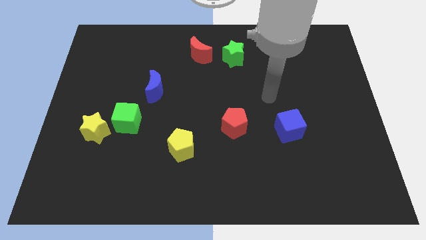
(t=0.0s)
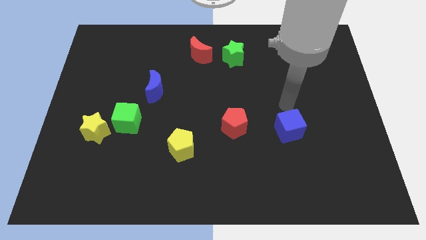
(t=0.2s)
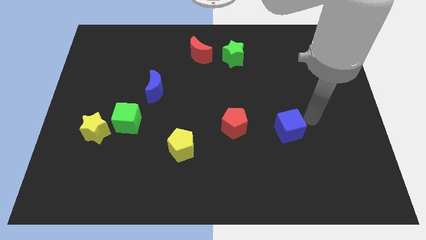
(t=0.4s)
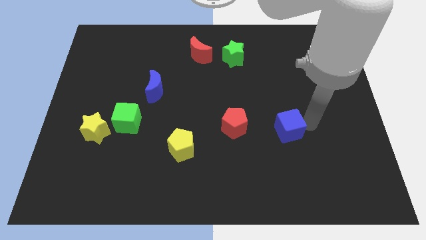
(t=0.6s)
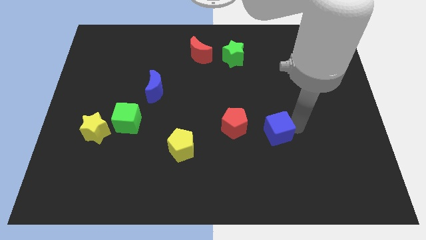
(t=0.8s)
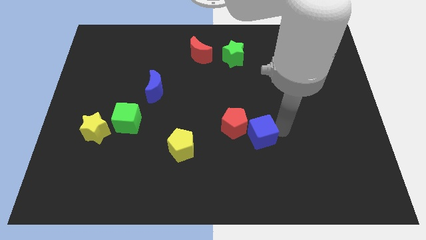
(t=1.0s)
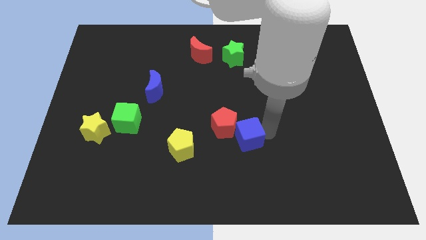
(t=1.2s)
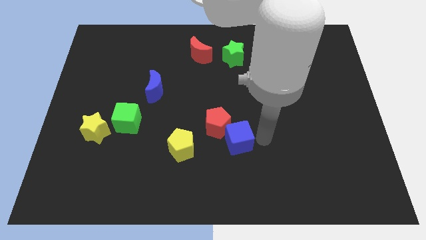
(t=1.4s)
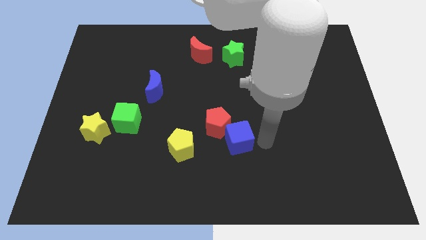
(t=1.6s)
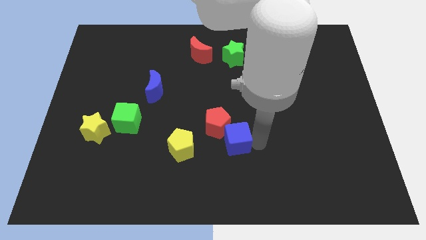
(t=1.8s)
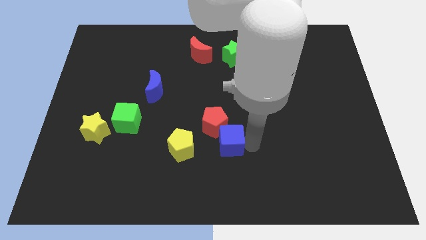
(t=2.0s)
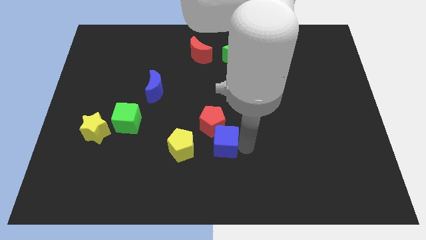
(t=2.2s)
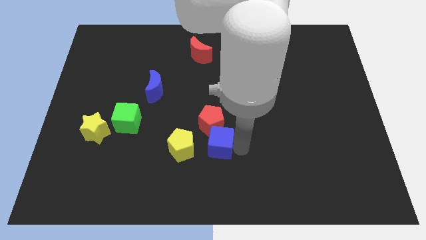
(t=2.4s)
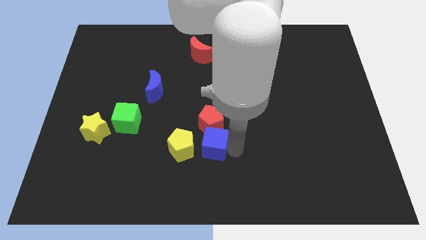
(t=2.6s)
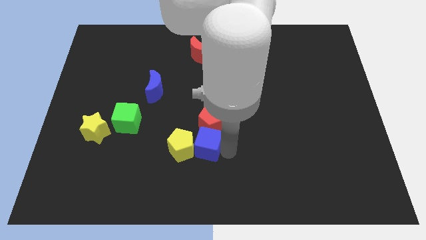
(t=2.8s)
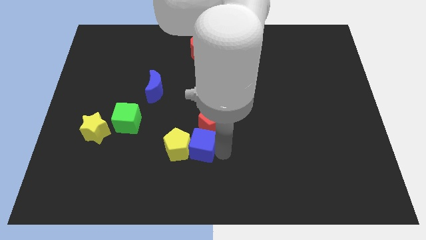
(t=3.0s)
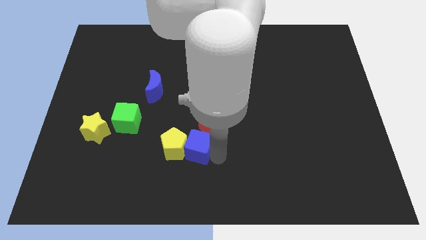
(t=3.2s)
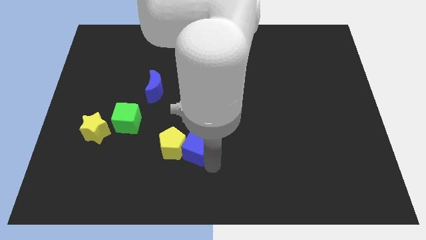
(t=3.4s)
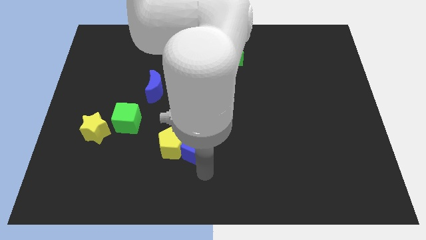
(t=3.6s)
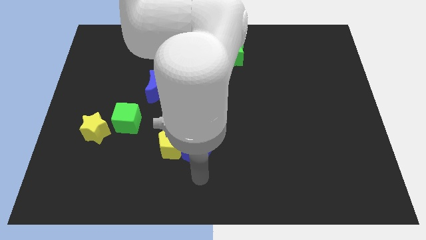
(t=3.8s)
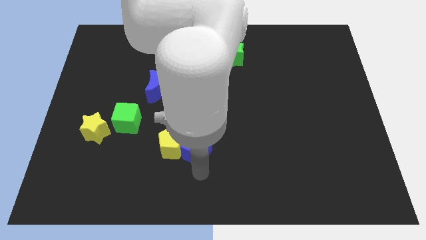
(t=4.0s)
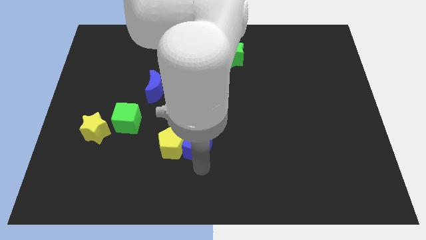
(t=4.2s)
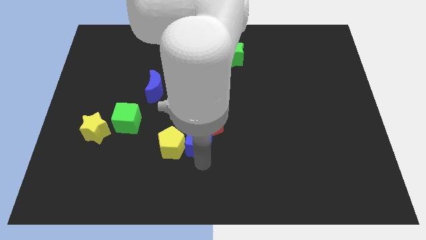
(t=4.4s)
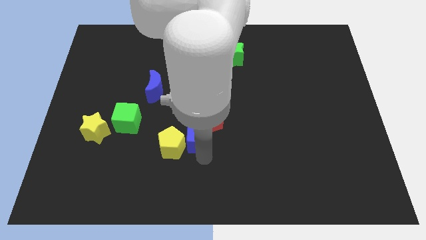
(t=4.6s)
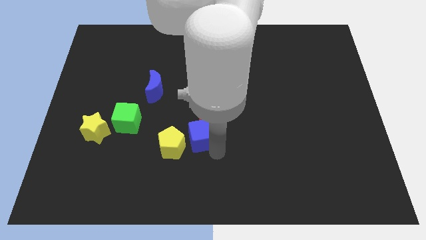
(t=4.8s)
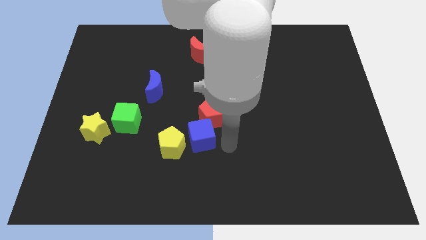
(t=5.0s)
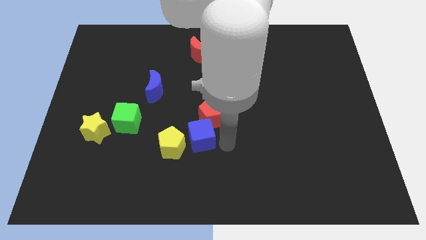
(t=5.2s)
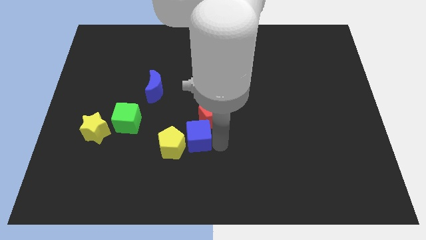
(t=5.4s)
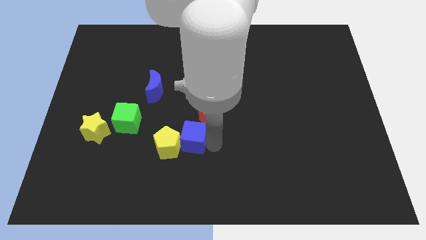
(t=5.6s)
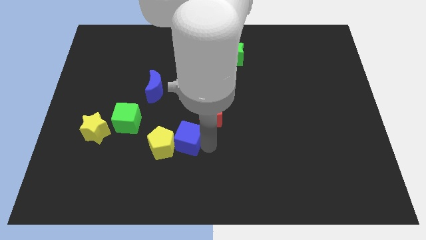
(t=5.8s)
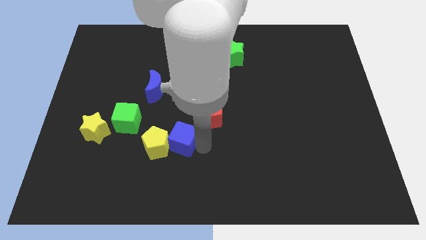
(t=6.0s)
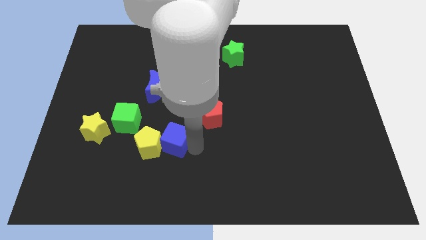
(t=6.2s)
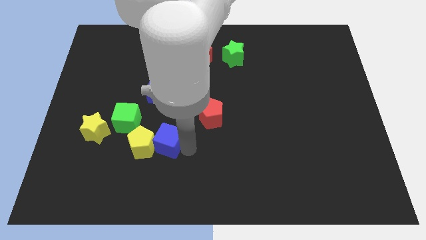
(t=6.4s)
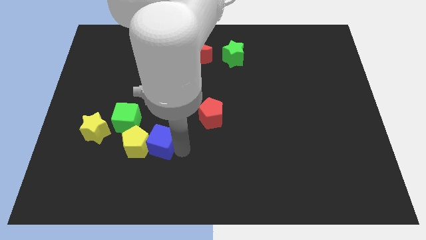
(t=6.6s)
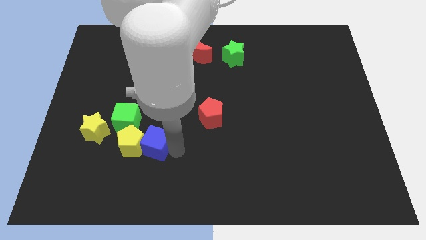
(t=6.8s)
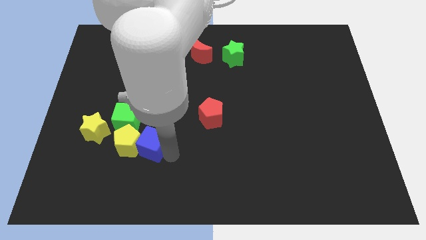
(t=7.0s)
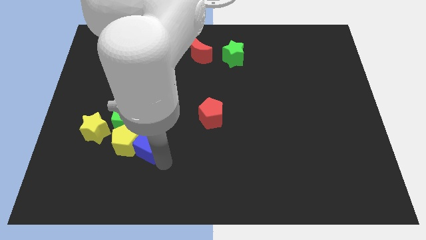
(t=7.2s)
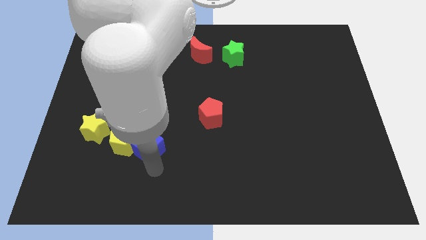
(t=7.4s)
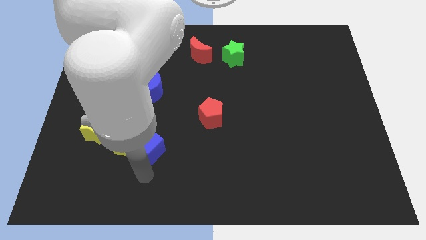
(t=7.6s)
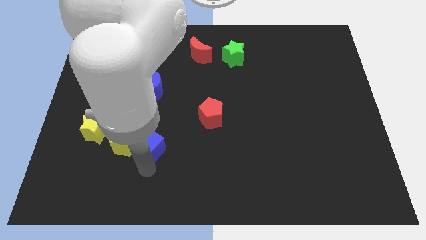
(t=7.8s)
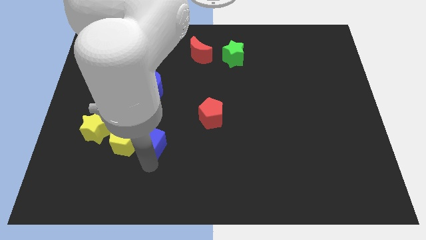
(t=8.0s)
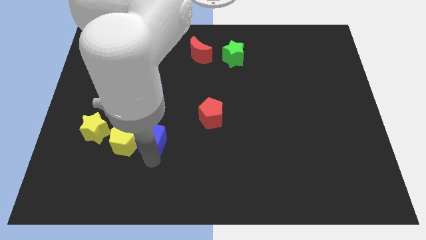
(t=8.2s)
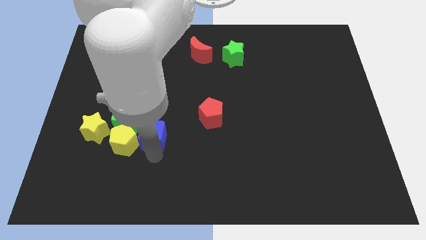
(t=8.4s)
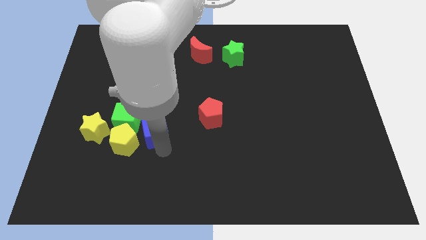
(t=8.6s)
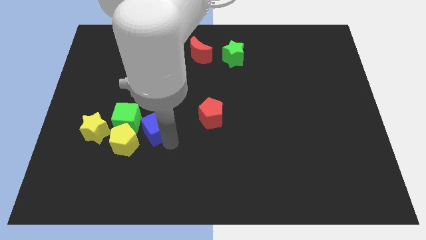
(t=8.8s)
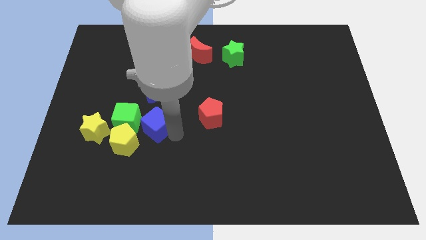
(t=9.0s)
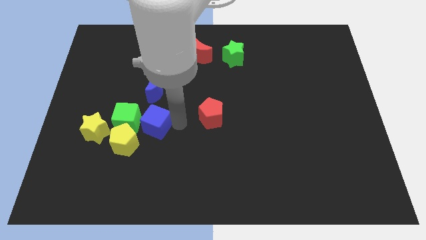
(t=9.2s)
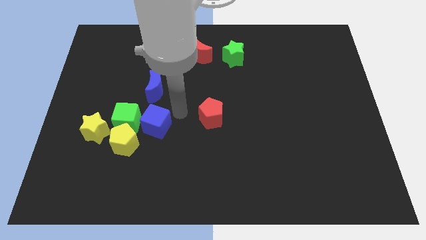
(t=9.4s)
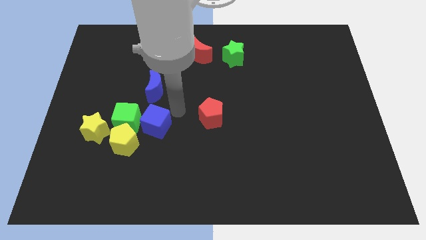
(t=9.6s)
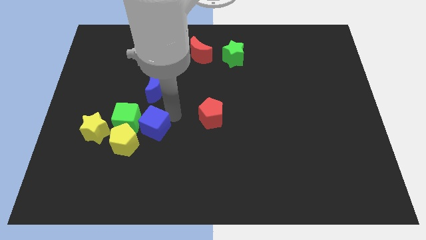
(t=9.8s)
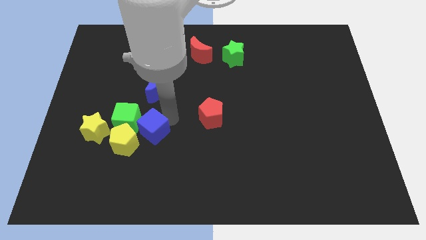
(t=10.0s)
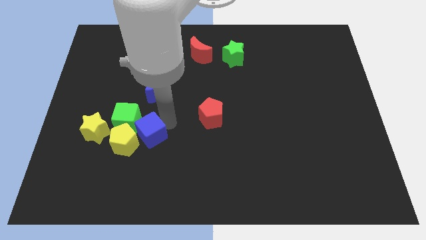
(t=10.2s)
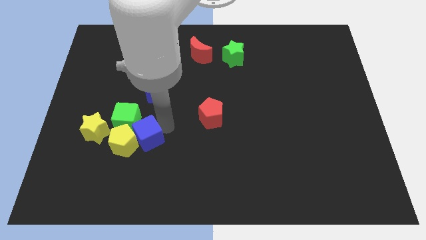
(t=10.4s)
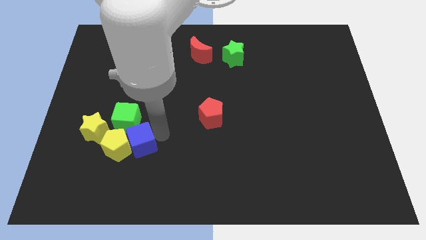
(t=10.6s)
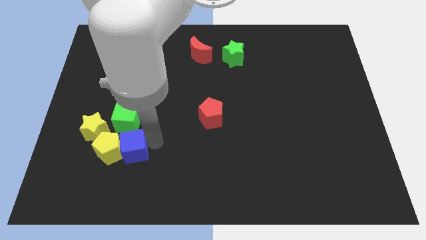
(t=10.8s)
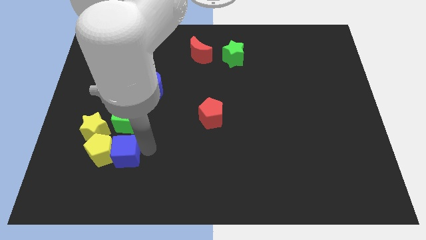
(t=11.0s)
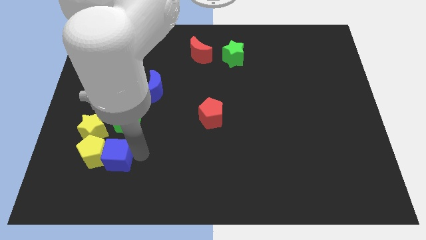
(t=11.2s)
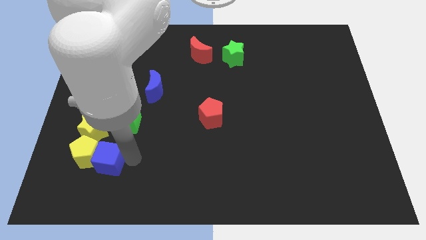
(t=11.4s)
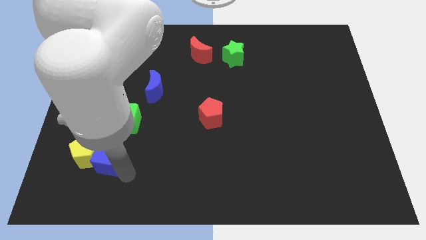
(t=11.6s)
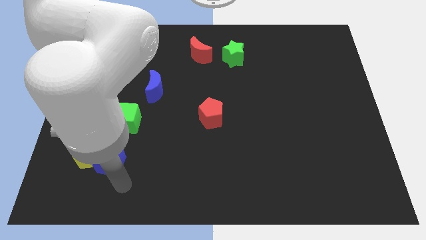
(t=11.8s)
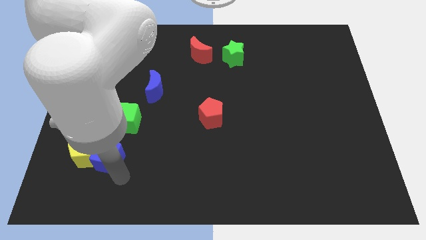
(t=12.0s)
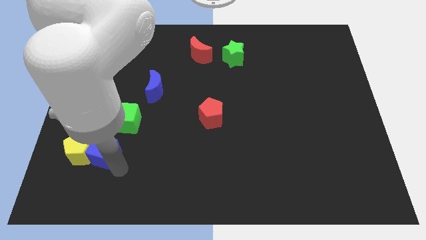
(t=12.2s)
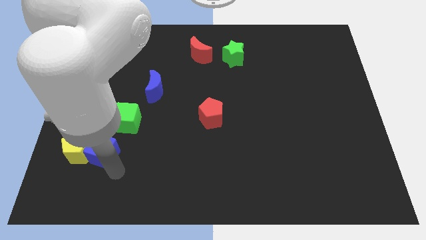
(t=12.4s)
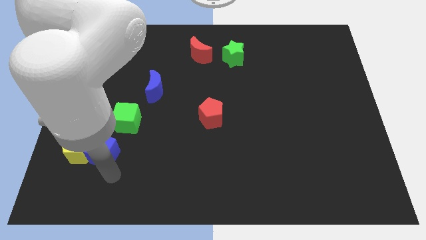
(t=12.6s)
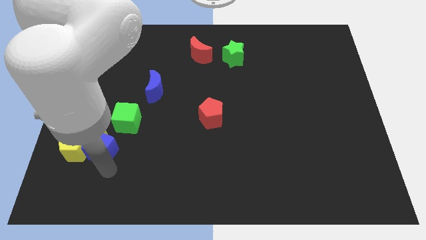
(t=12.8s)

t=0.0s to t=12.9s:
push the blue cube to the yellow star
